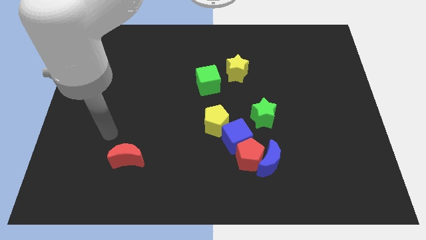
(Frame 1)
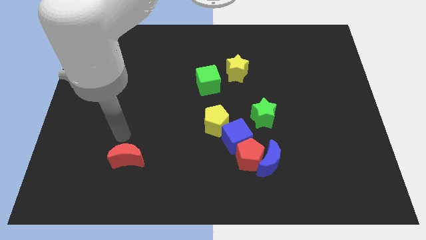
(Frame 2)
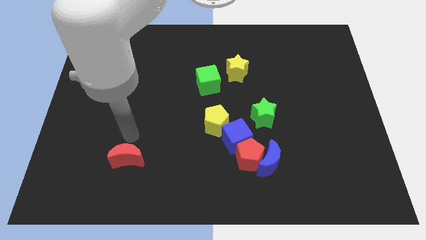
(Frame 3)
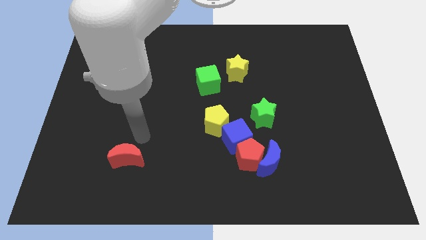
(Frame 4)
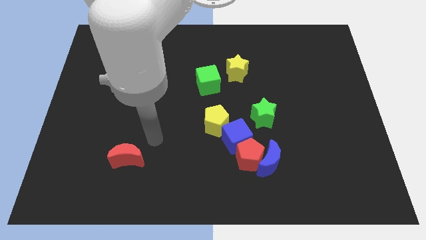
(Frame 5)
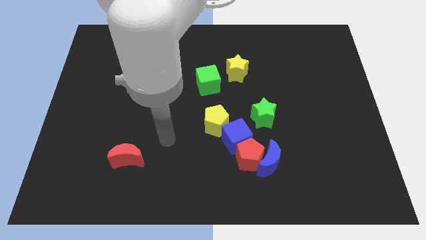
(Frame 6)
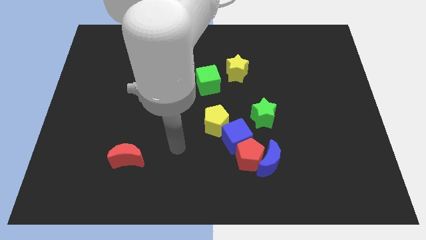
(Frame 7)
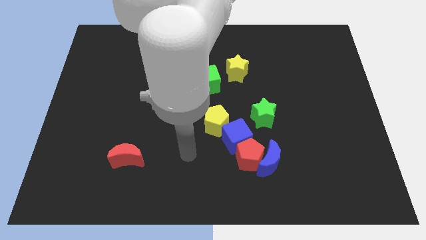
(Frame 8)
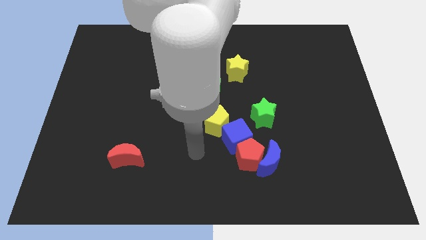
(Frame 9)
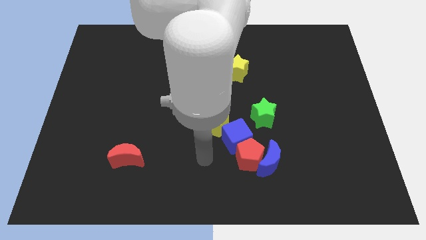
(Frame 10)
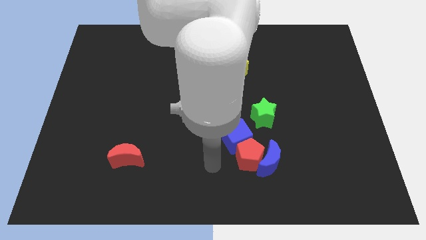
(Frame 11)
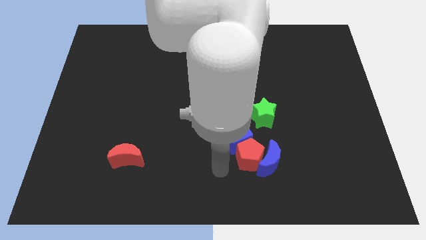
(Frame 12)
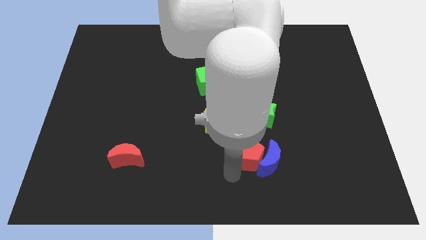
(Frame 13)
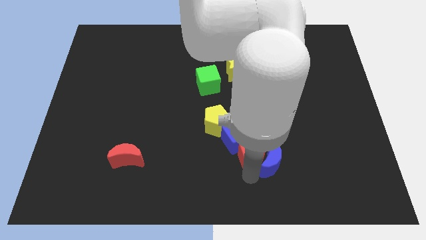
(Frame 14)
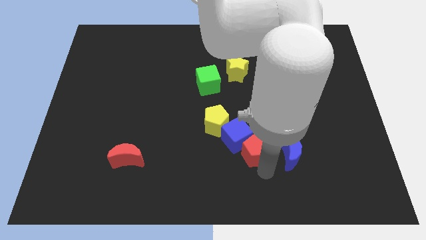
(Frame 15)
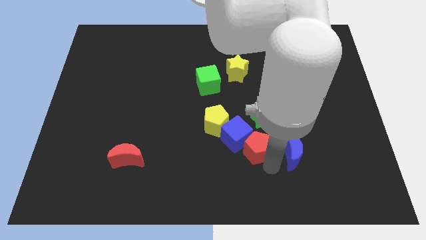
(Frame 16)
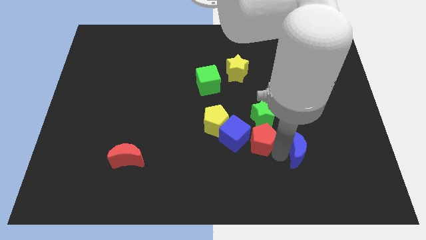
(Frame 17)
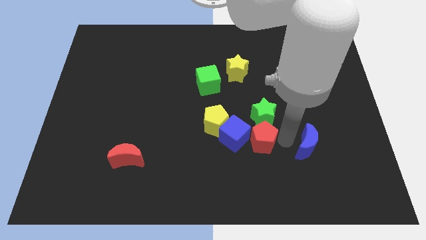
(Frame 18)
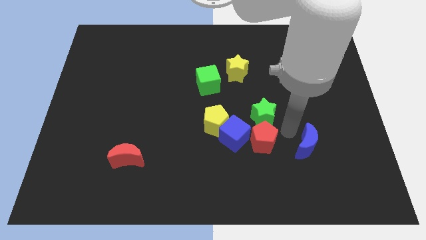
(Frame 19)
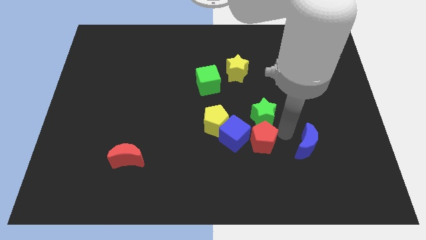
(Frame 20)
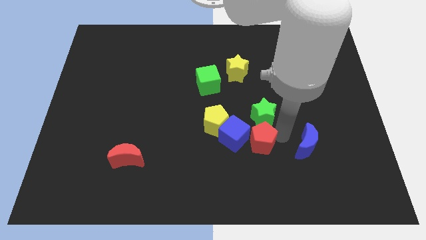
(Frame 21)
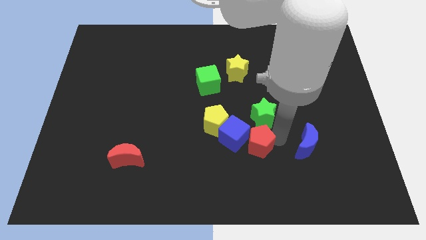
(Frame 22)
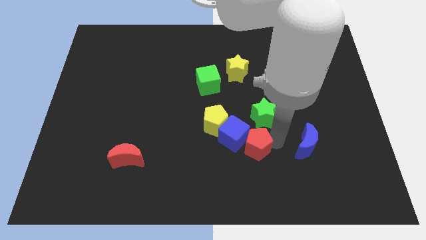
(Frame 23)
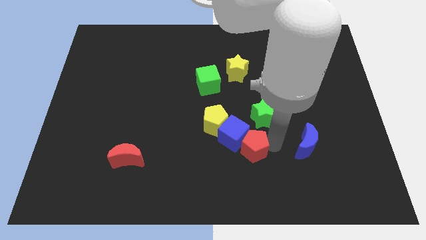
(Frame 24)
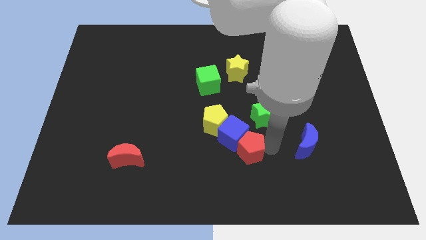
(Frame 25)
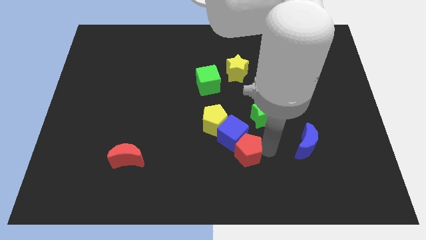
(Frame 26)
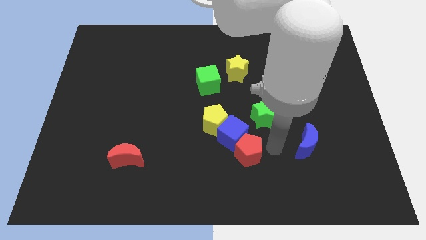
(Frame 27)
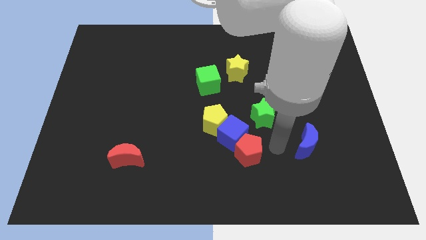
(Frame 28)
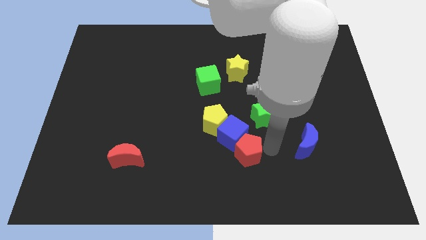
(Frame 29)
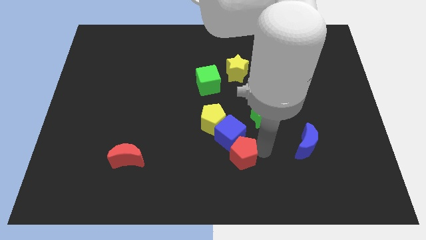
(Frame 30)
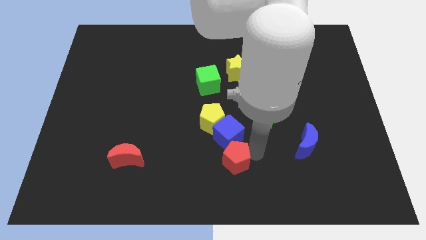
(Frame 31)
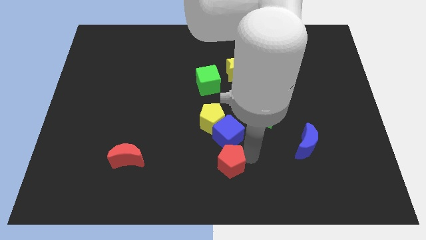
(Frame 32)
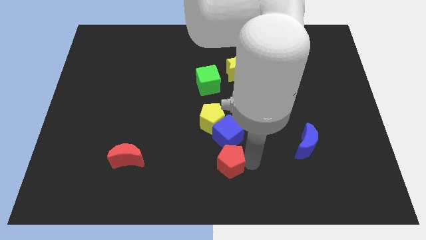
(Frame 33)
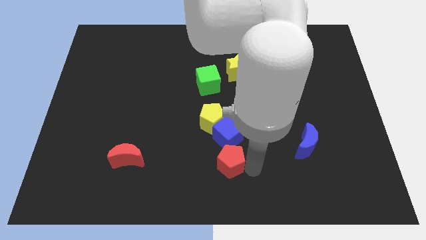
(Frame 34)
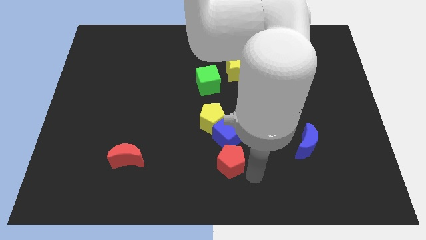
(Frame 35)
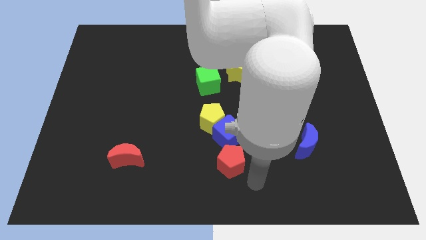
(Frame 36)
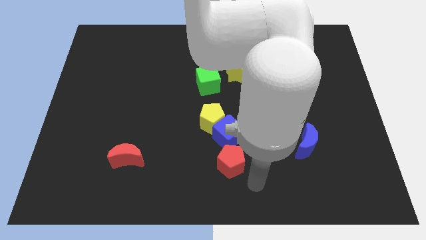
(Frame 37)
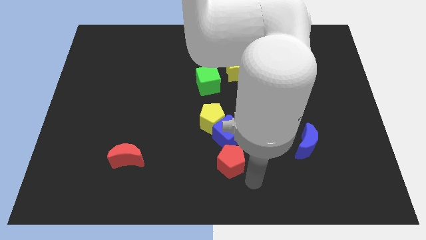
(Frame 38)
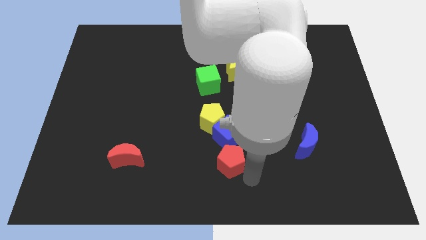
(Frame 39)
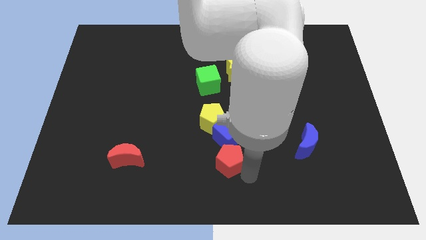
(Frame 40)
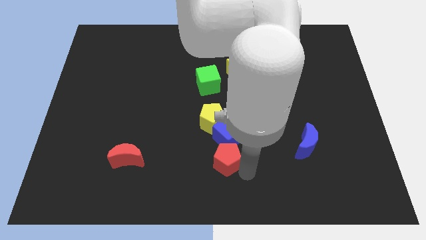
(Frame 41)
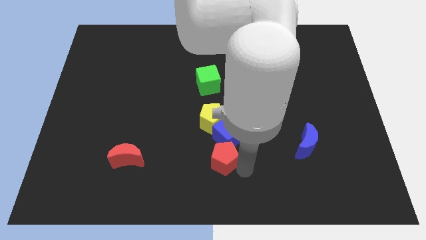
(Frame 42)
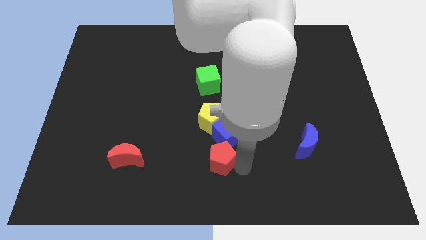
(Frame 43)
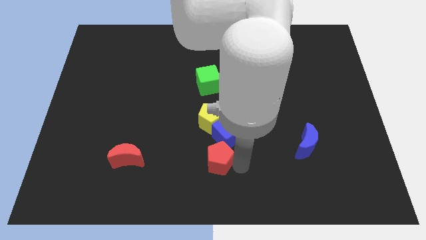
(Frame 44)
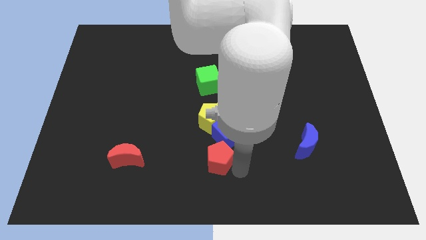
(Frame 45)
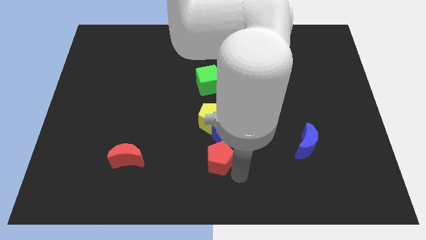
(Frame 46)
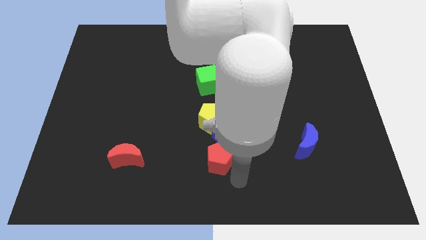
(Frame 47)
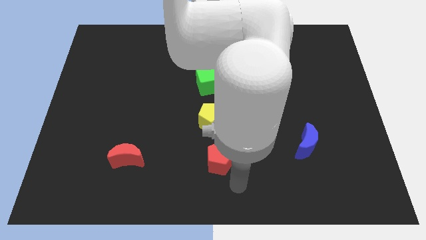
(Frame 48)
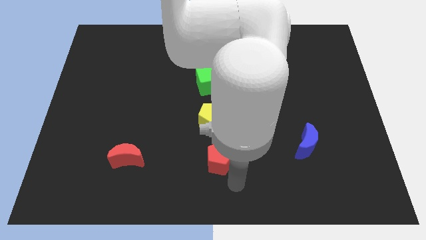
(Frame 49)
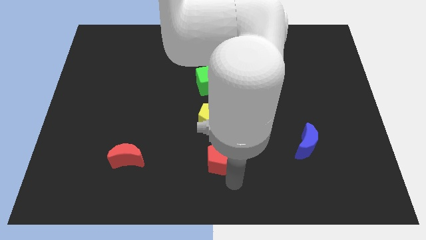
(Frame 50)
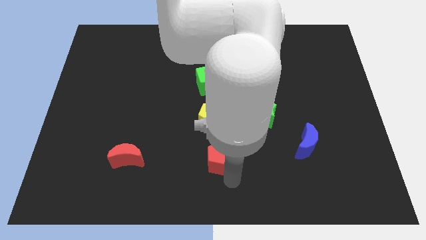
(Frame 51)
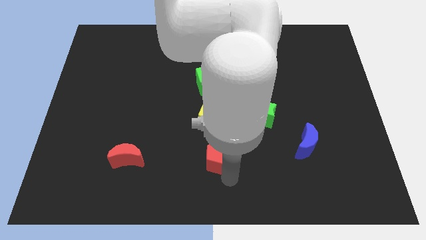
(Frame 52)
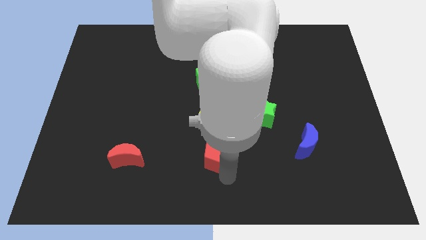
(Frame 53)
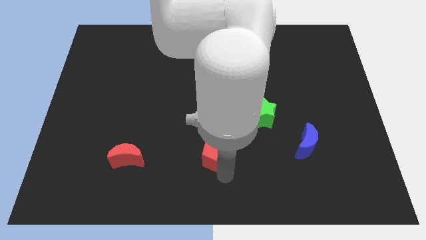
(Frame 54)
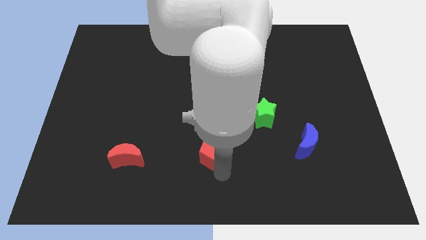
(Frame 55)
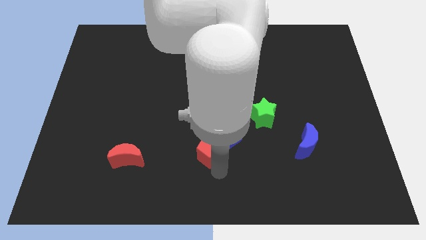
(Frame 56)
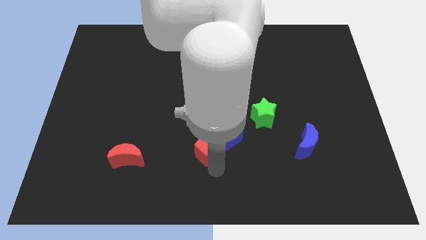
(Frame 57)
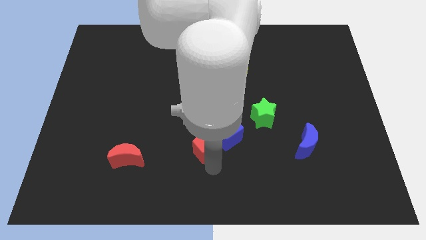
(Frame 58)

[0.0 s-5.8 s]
push the red pentagon a little up and left diagonally

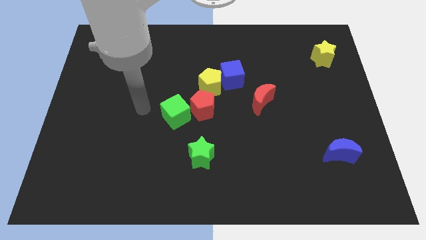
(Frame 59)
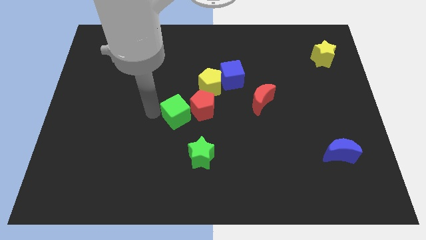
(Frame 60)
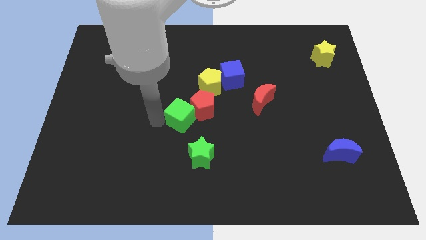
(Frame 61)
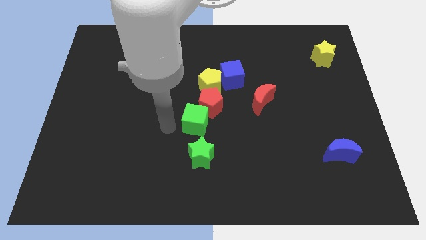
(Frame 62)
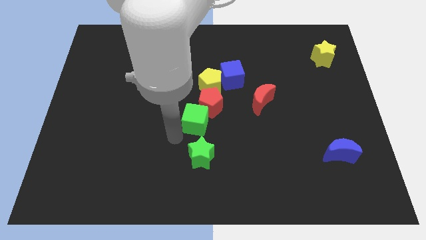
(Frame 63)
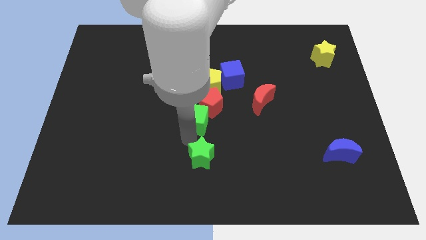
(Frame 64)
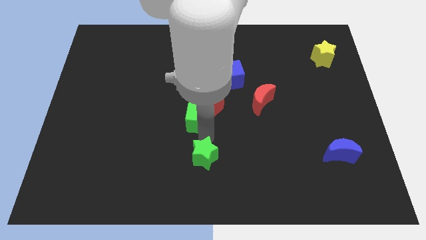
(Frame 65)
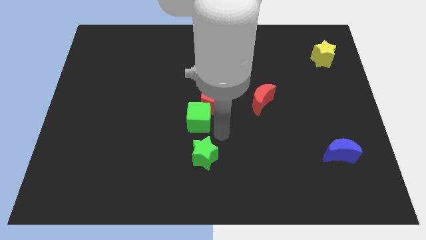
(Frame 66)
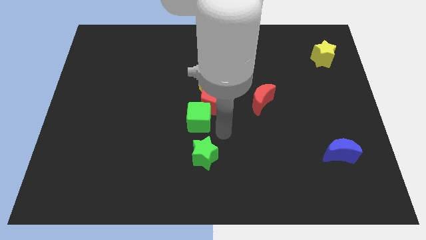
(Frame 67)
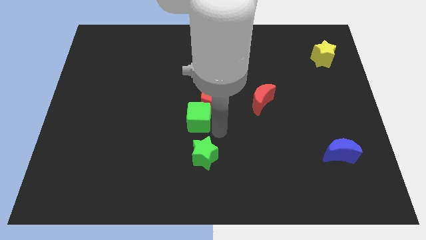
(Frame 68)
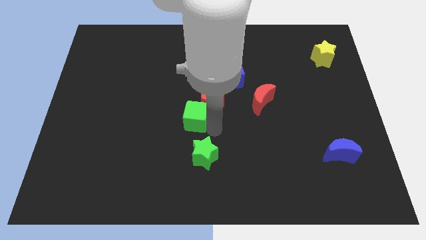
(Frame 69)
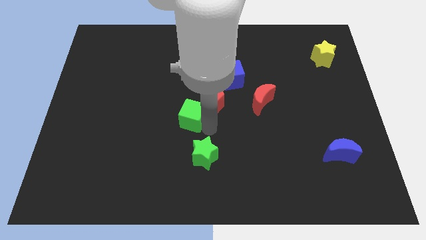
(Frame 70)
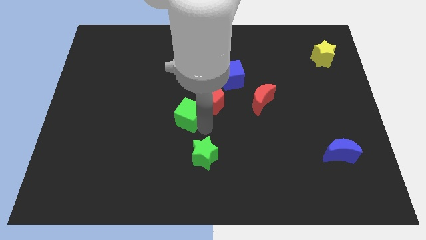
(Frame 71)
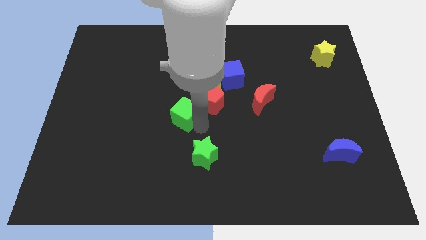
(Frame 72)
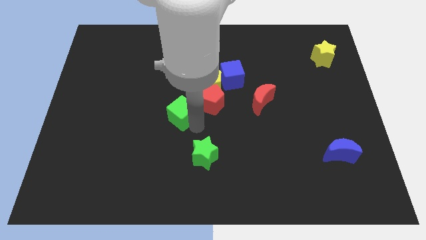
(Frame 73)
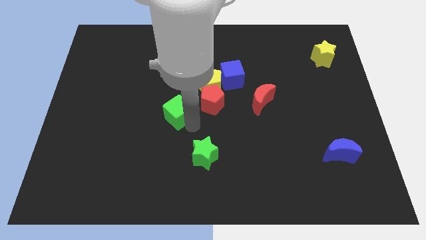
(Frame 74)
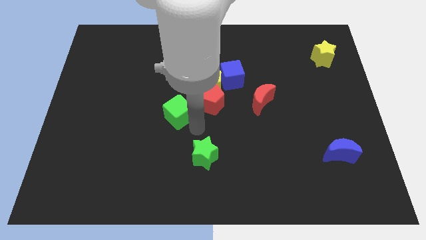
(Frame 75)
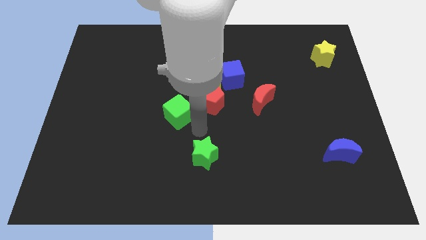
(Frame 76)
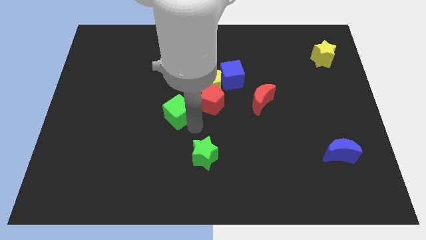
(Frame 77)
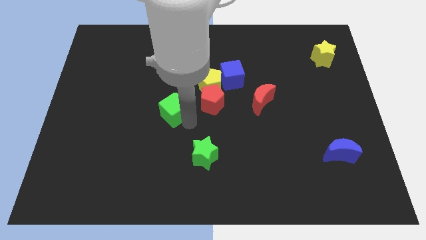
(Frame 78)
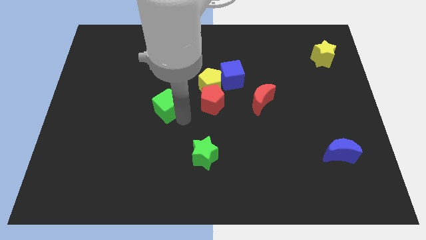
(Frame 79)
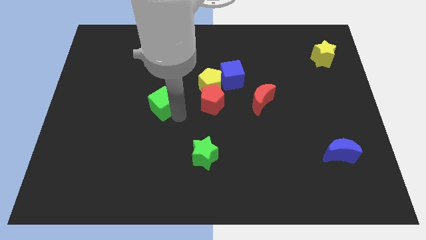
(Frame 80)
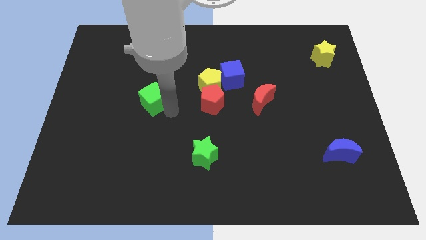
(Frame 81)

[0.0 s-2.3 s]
slide the green cube up and then to the left a little bit
